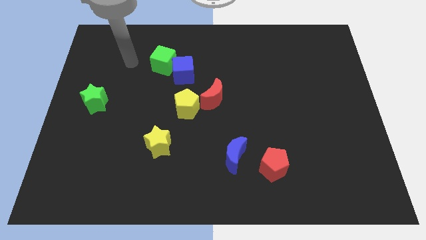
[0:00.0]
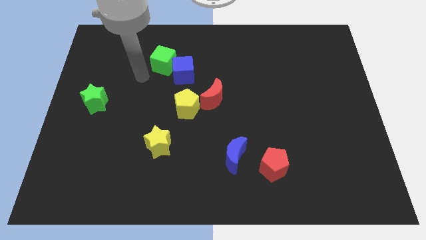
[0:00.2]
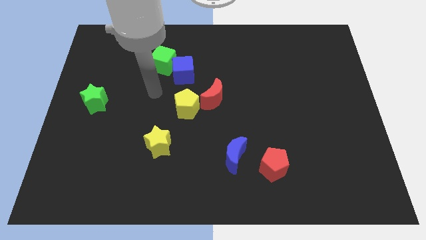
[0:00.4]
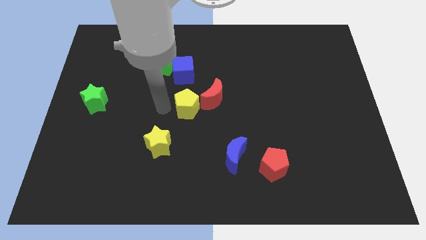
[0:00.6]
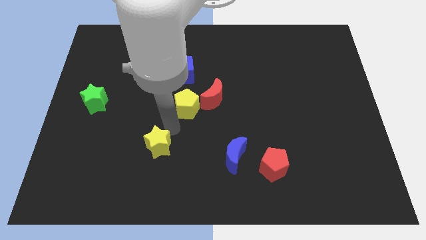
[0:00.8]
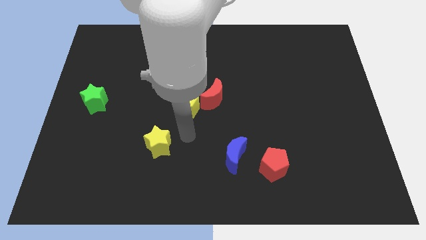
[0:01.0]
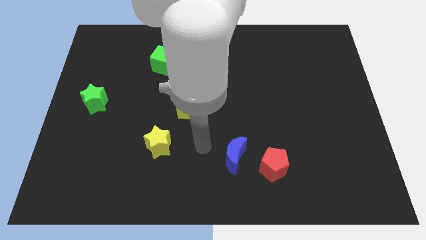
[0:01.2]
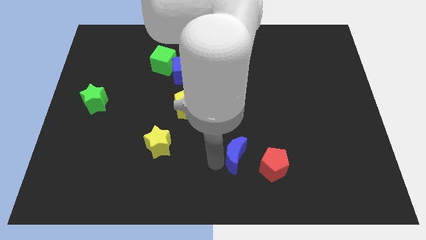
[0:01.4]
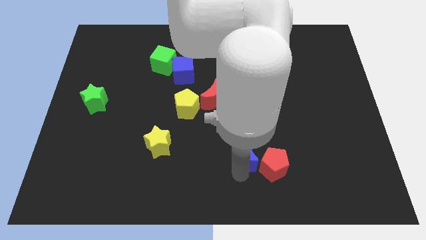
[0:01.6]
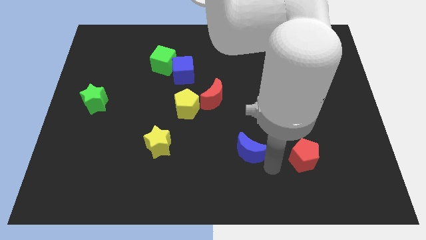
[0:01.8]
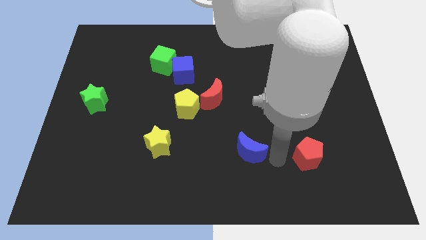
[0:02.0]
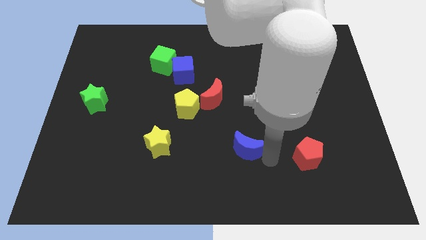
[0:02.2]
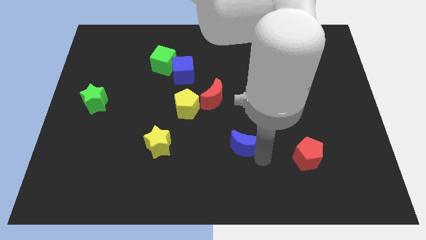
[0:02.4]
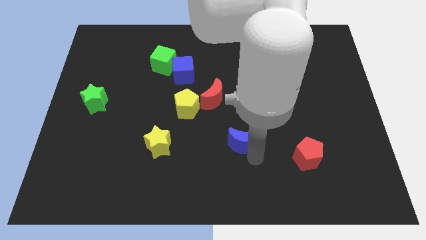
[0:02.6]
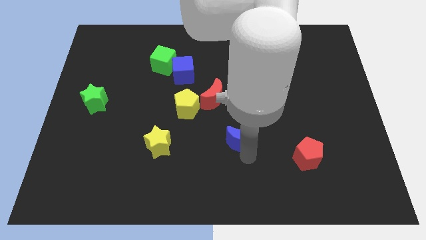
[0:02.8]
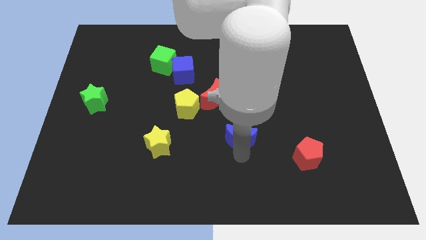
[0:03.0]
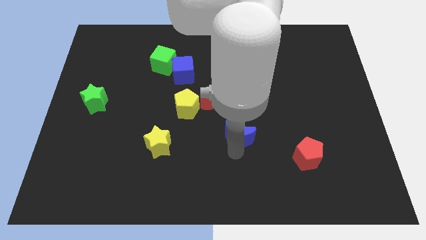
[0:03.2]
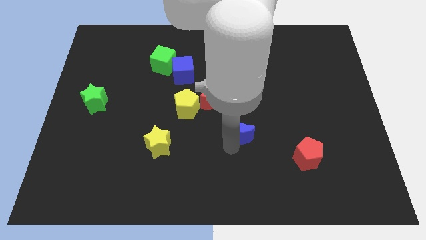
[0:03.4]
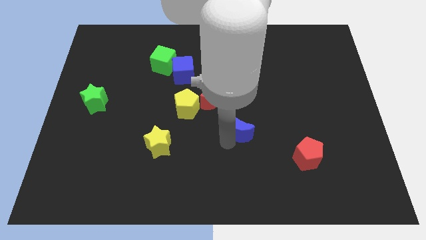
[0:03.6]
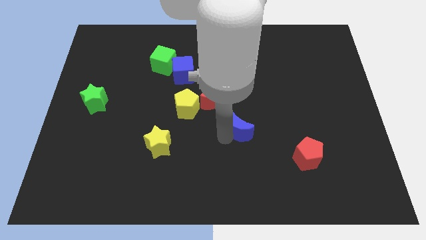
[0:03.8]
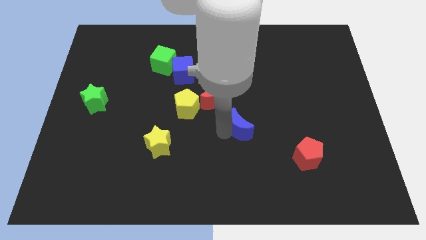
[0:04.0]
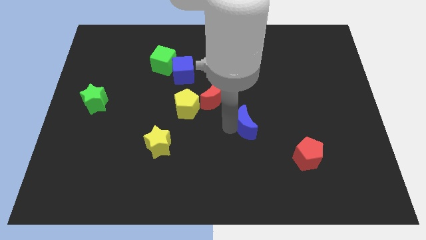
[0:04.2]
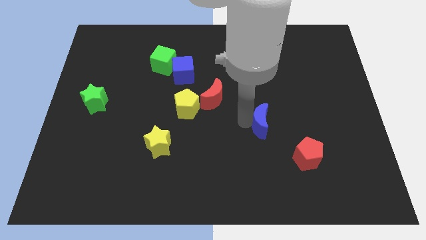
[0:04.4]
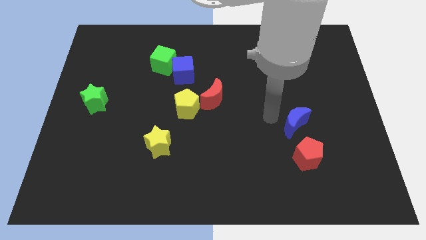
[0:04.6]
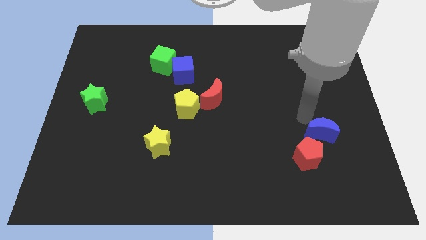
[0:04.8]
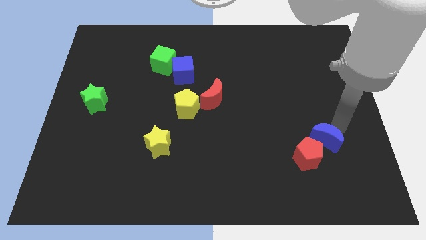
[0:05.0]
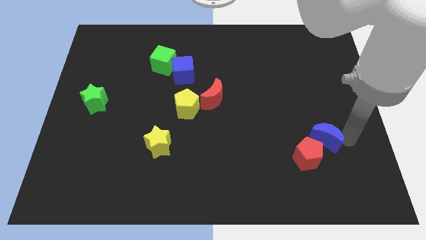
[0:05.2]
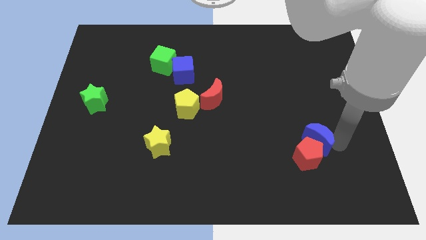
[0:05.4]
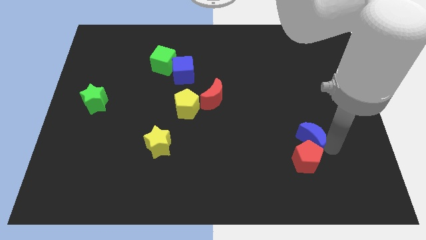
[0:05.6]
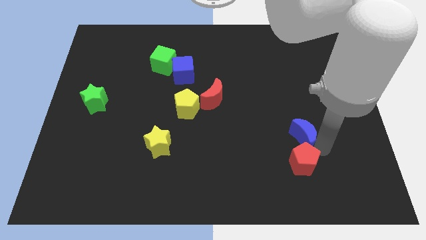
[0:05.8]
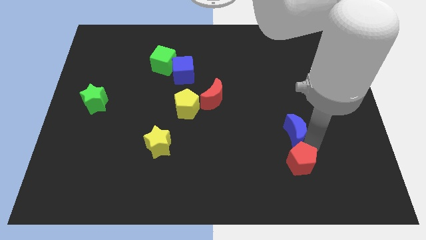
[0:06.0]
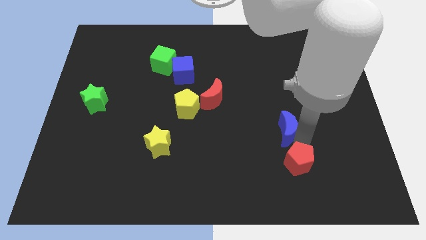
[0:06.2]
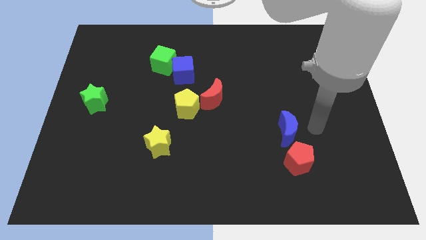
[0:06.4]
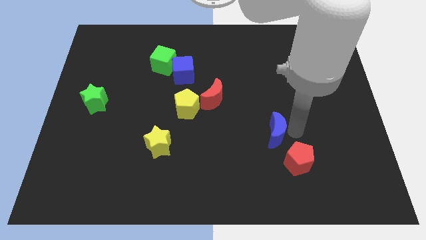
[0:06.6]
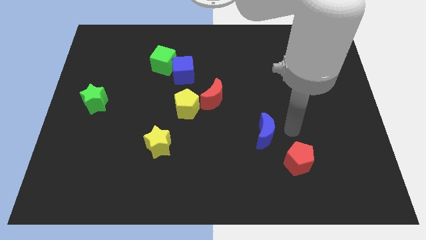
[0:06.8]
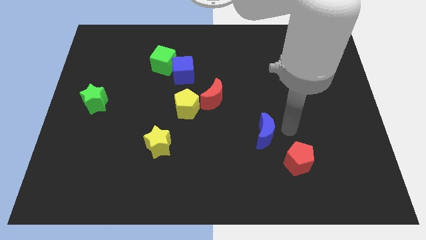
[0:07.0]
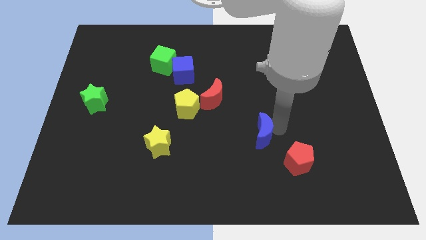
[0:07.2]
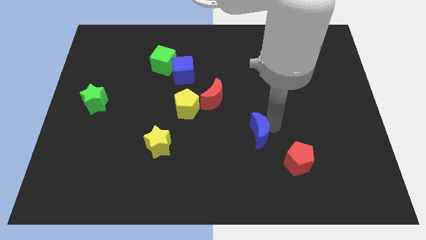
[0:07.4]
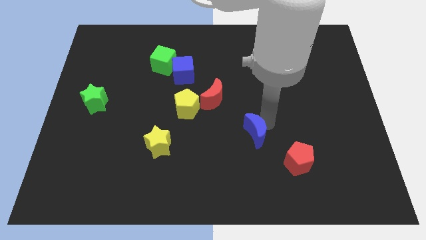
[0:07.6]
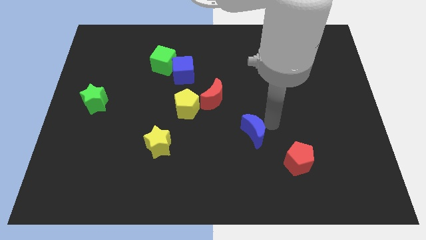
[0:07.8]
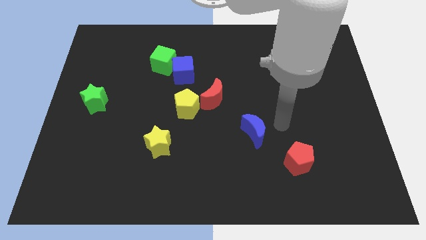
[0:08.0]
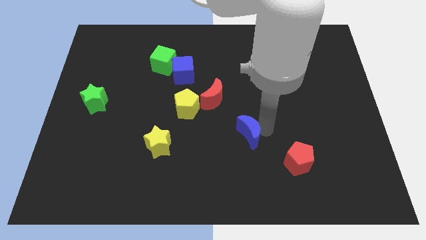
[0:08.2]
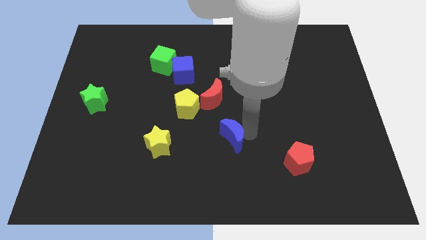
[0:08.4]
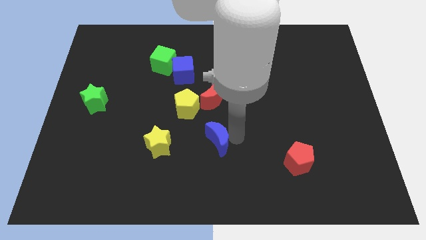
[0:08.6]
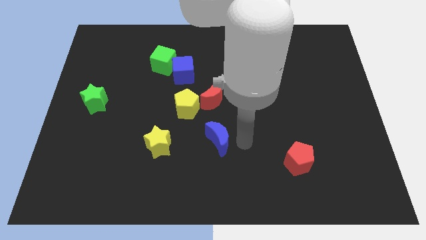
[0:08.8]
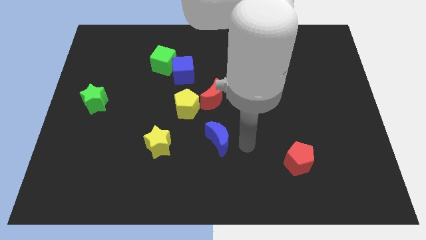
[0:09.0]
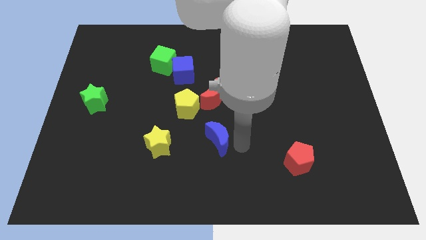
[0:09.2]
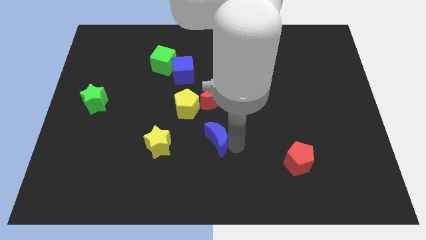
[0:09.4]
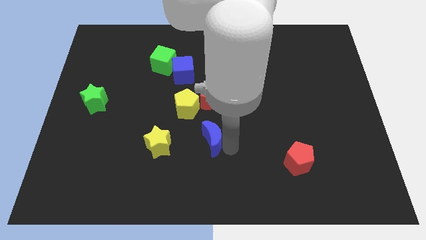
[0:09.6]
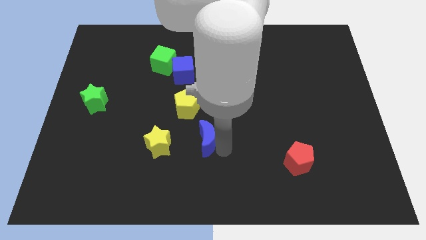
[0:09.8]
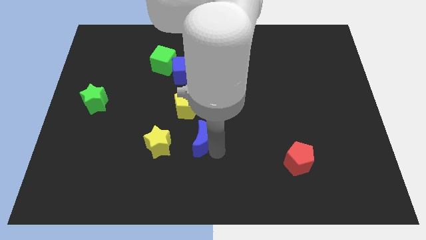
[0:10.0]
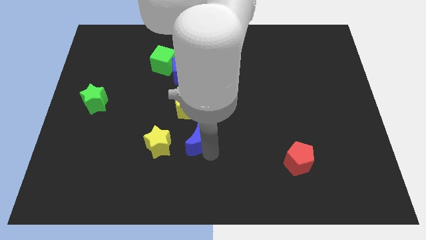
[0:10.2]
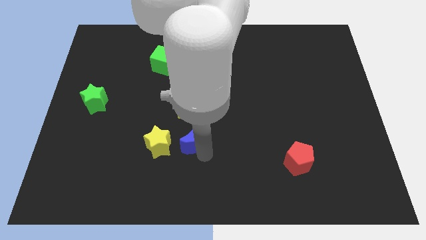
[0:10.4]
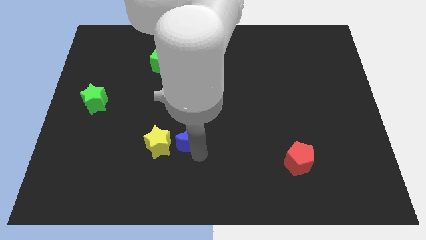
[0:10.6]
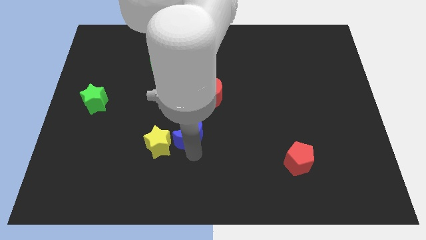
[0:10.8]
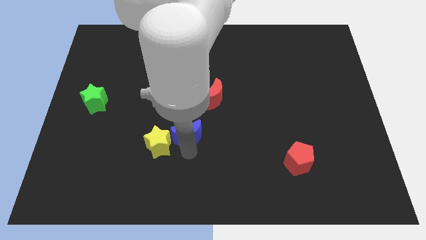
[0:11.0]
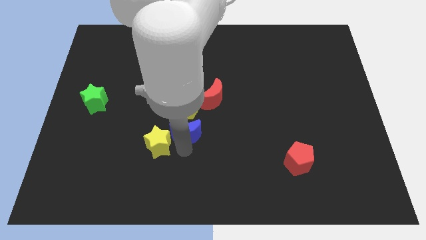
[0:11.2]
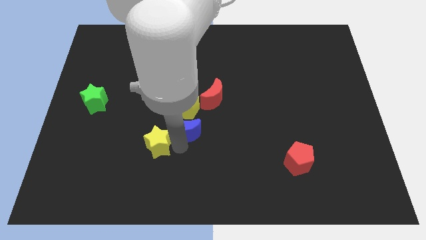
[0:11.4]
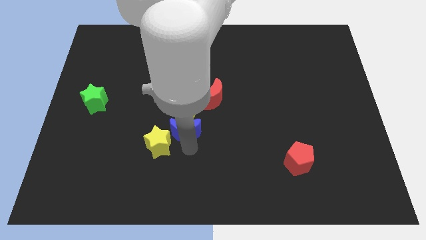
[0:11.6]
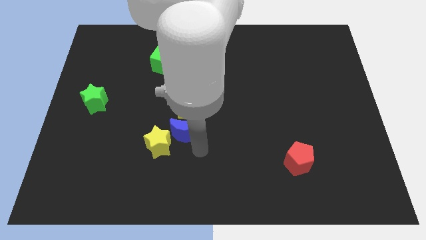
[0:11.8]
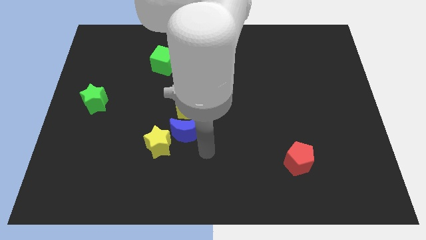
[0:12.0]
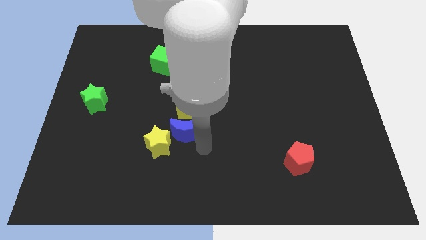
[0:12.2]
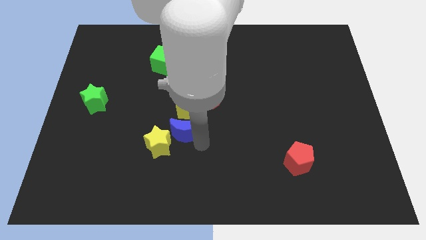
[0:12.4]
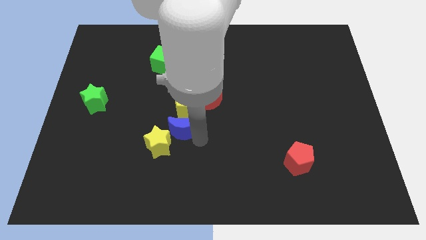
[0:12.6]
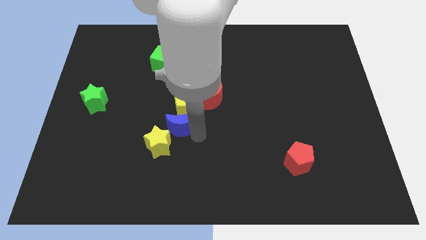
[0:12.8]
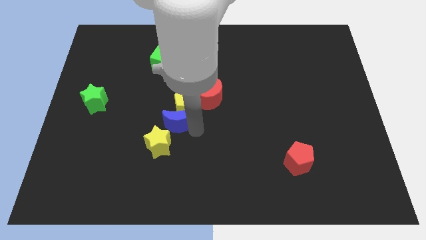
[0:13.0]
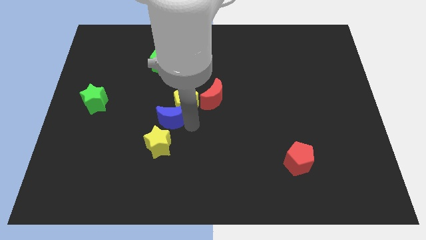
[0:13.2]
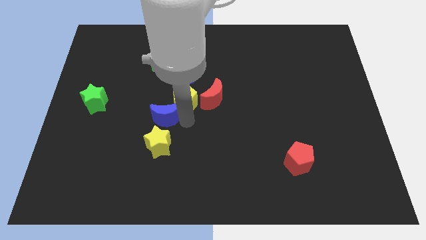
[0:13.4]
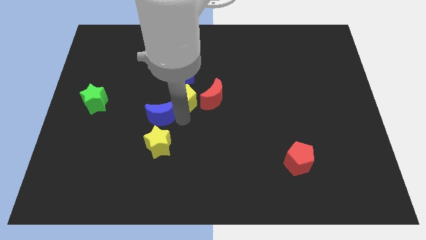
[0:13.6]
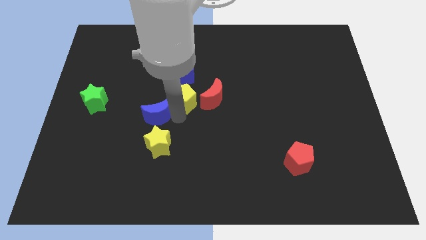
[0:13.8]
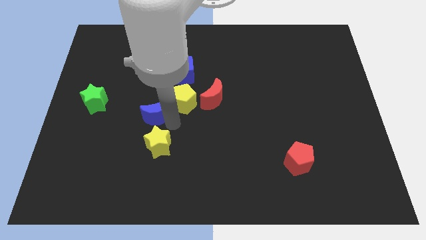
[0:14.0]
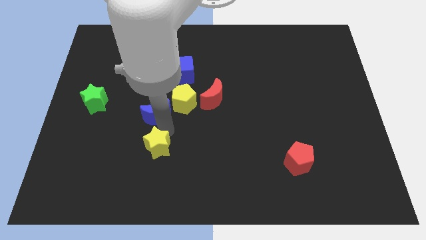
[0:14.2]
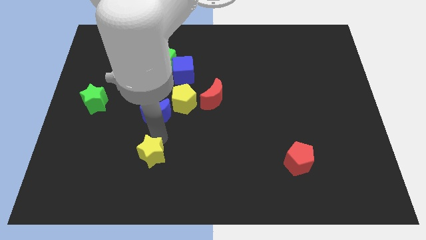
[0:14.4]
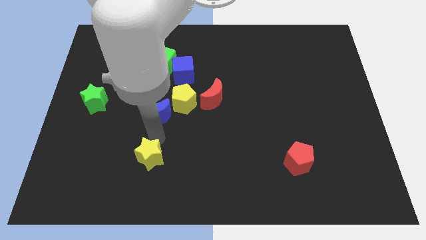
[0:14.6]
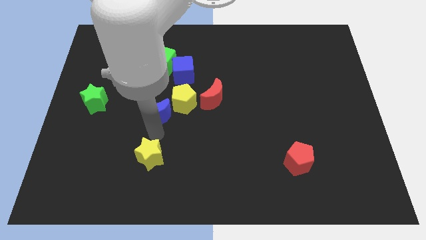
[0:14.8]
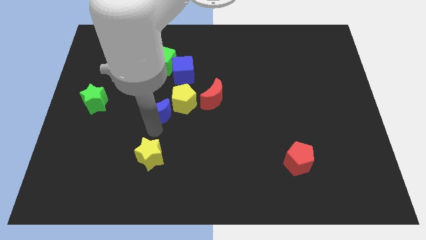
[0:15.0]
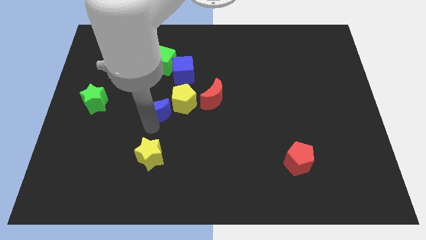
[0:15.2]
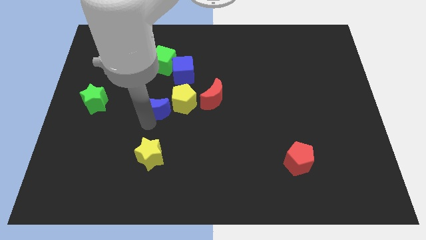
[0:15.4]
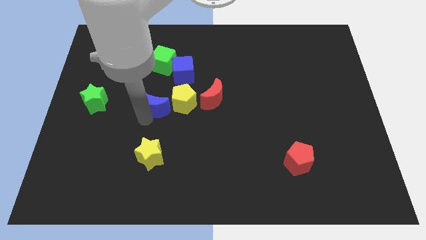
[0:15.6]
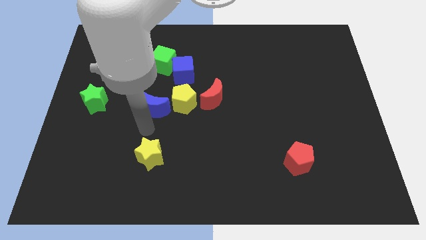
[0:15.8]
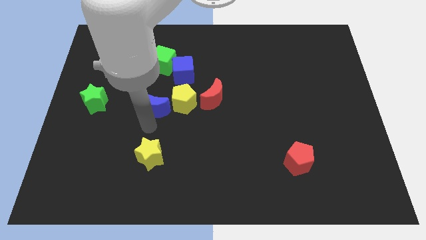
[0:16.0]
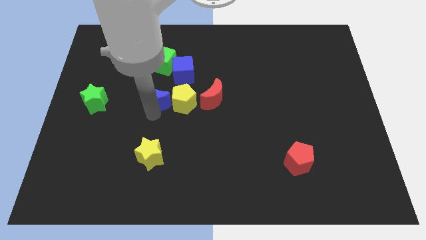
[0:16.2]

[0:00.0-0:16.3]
put the blue moon diagonally up and to the left of the yellow pentagon

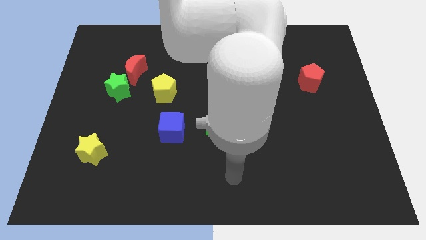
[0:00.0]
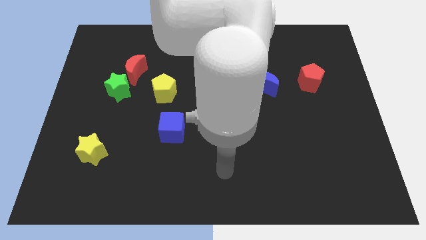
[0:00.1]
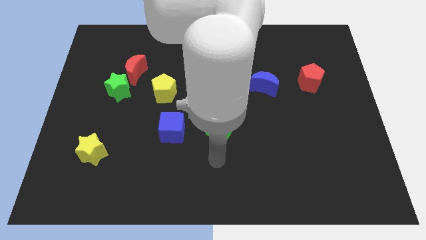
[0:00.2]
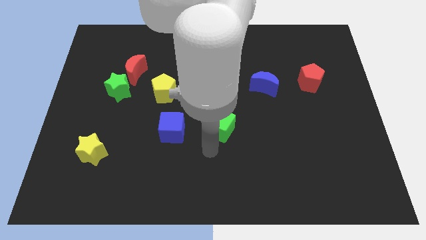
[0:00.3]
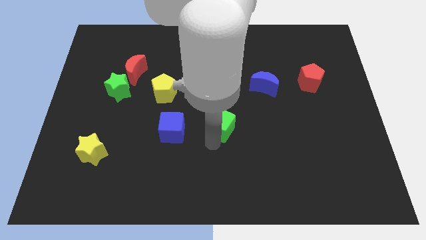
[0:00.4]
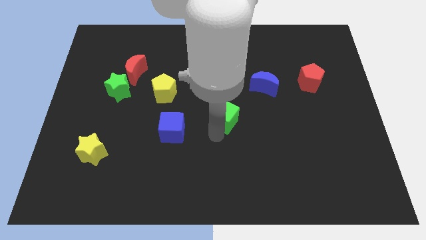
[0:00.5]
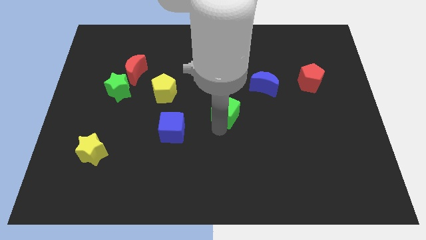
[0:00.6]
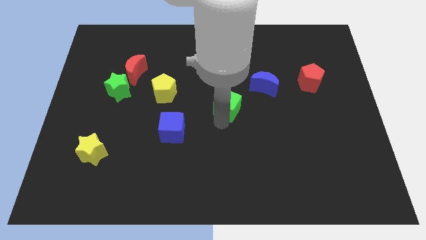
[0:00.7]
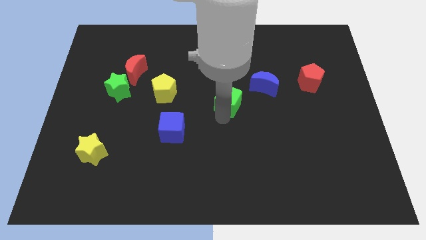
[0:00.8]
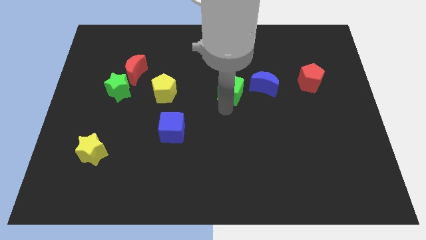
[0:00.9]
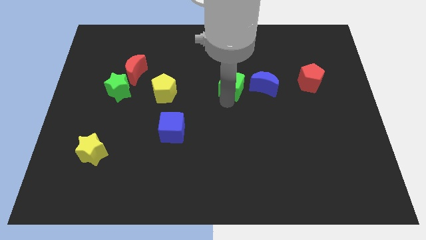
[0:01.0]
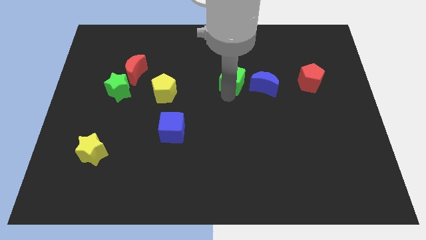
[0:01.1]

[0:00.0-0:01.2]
slide the green cube to the top left of the blue moon
